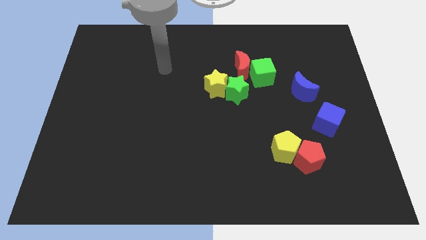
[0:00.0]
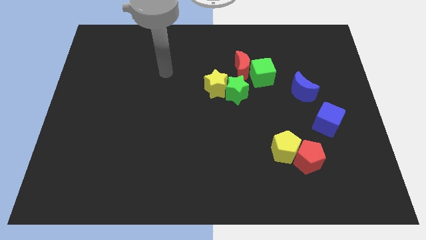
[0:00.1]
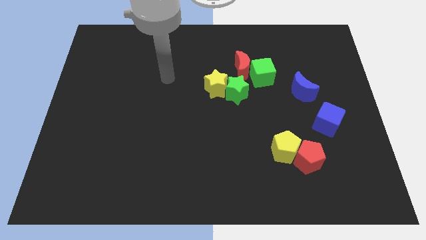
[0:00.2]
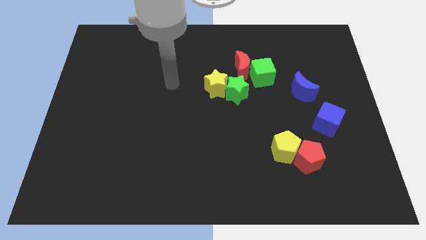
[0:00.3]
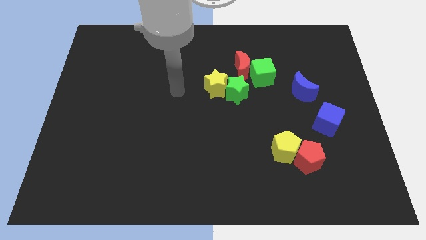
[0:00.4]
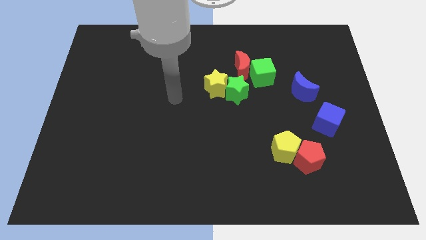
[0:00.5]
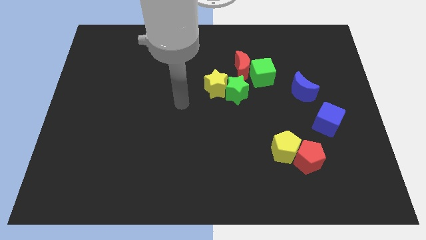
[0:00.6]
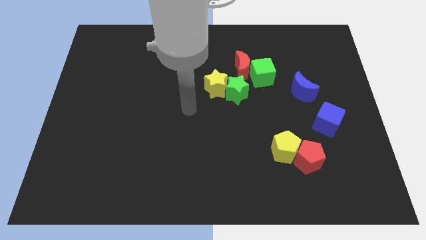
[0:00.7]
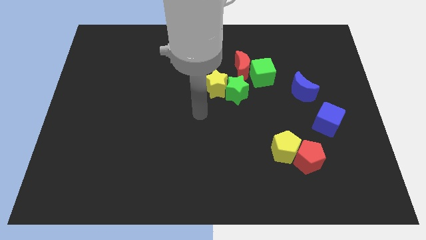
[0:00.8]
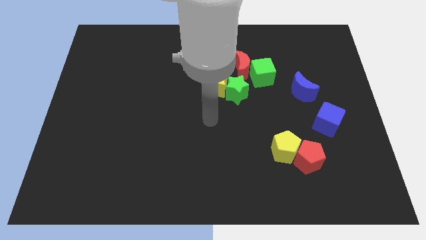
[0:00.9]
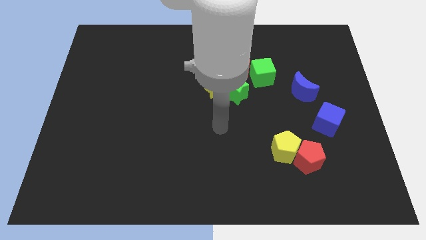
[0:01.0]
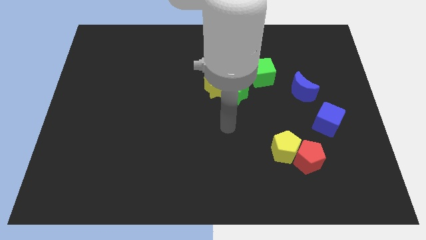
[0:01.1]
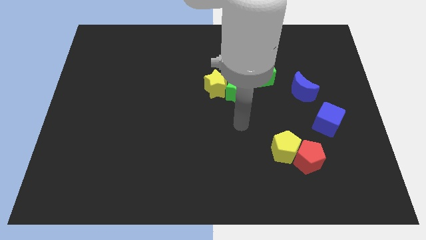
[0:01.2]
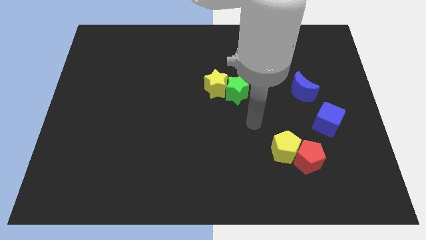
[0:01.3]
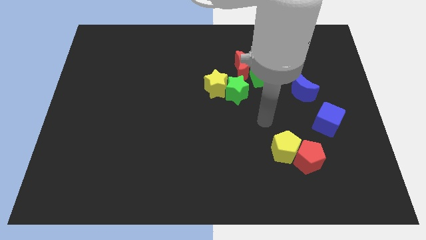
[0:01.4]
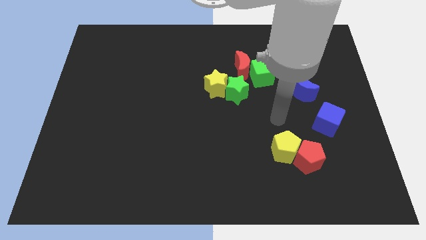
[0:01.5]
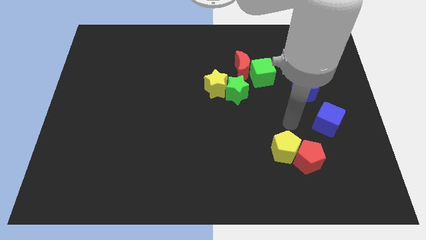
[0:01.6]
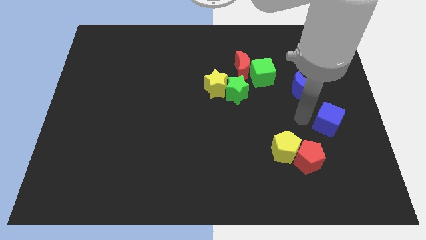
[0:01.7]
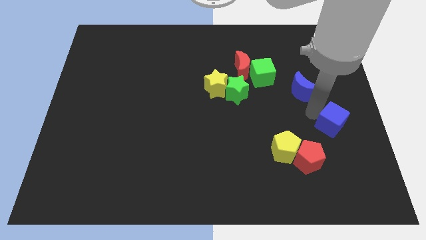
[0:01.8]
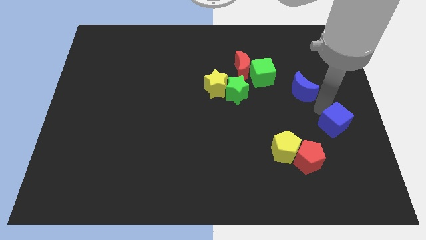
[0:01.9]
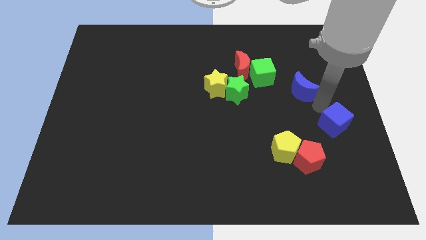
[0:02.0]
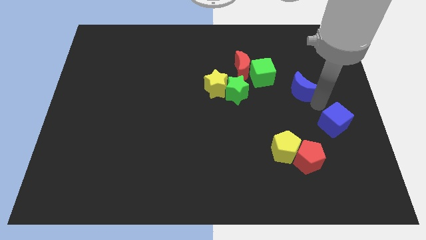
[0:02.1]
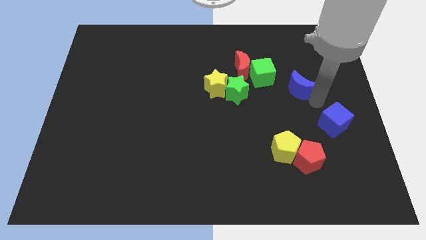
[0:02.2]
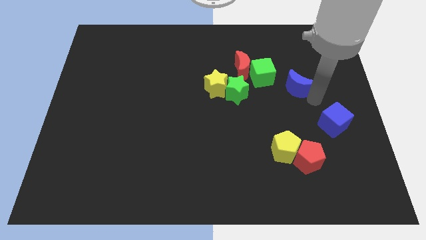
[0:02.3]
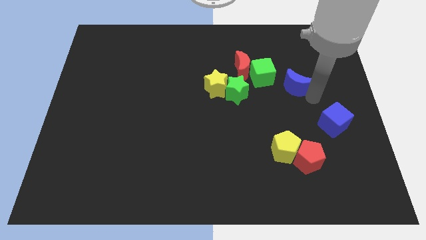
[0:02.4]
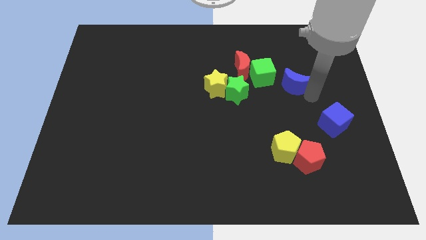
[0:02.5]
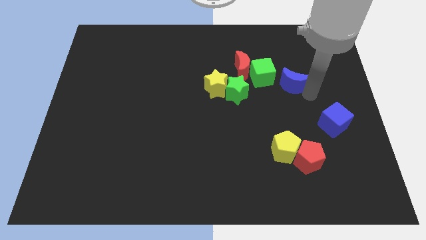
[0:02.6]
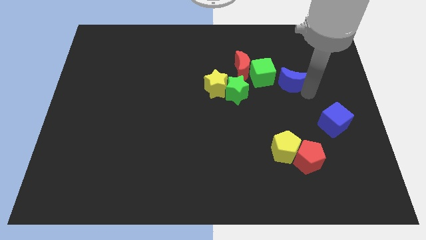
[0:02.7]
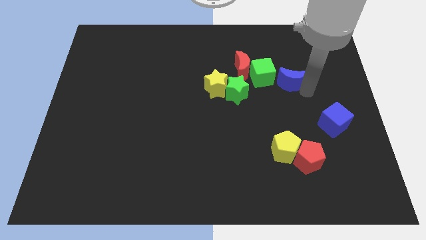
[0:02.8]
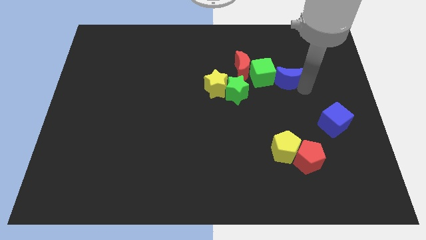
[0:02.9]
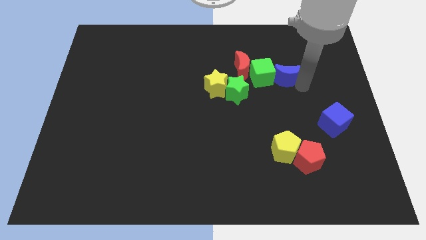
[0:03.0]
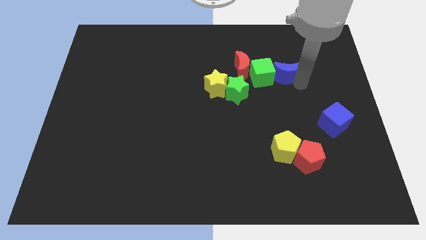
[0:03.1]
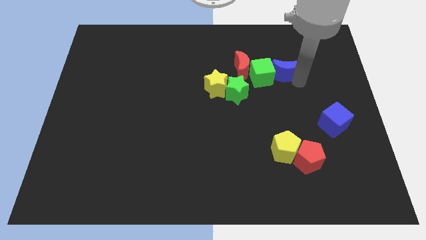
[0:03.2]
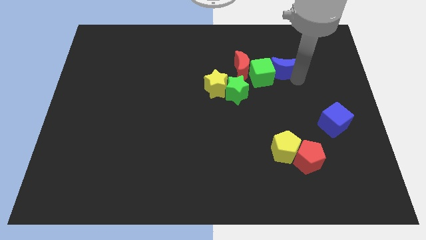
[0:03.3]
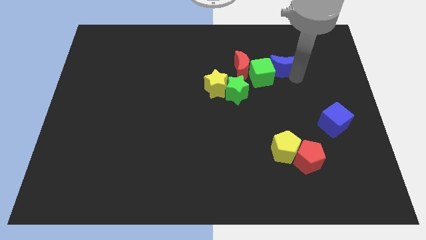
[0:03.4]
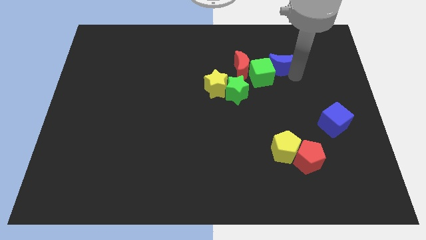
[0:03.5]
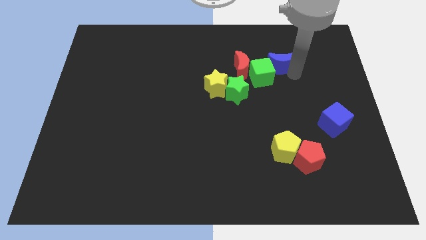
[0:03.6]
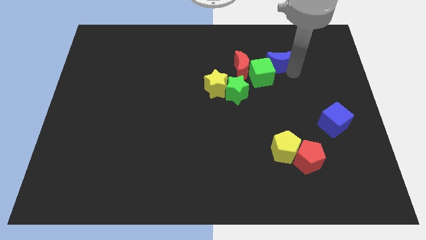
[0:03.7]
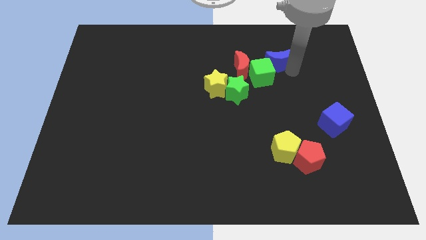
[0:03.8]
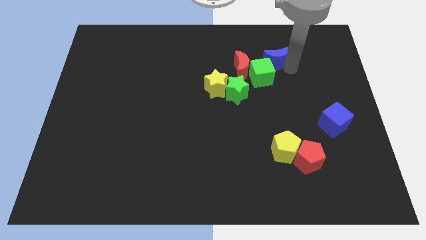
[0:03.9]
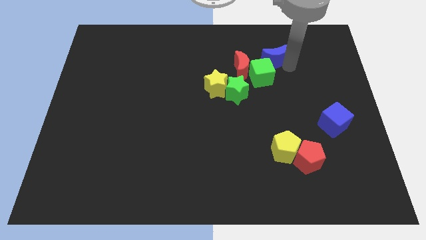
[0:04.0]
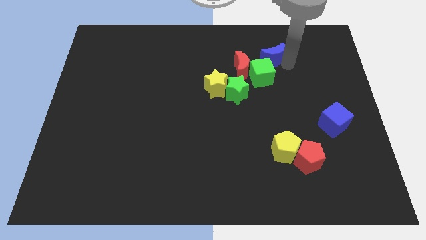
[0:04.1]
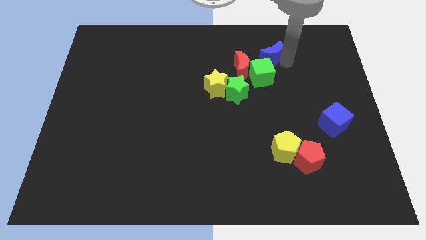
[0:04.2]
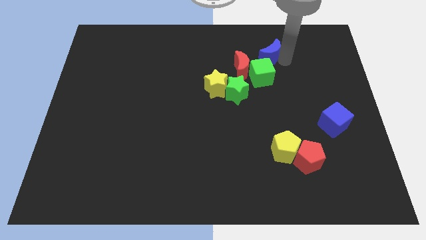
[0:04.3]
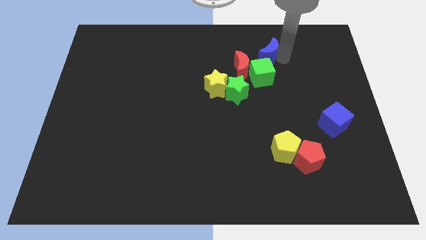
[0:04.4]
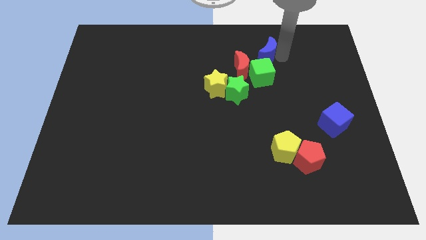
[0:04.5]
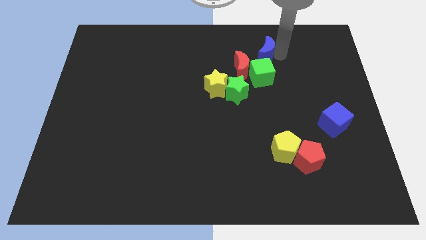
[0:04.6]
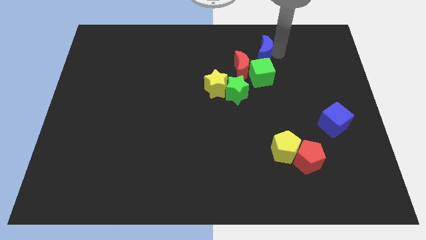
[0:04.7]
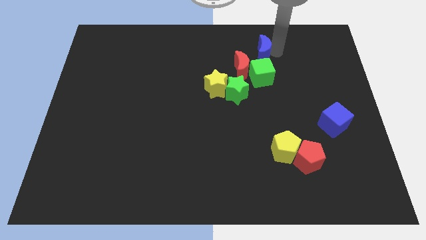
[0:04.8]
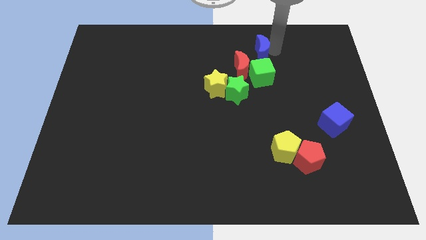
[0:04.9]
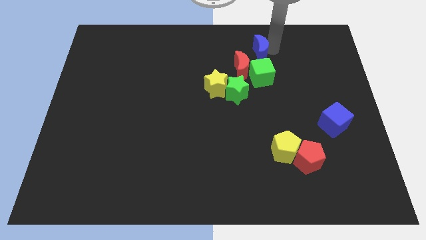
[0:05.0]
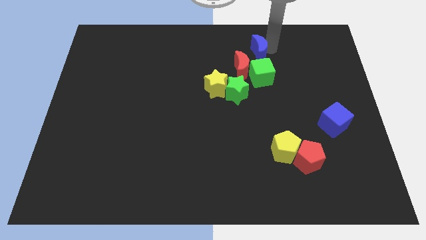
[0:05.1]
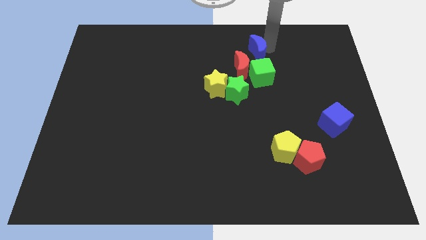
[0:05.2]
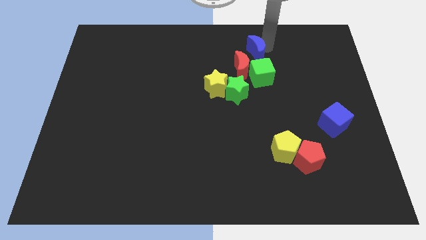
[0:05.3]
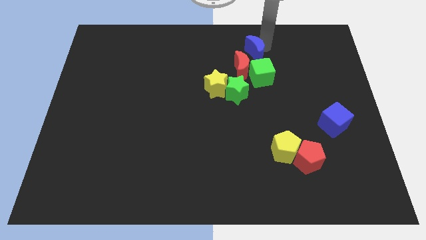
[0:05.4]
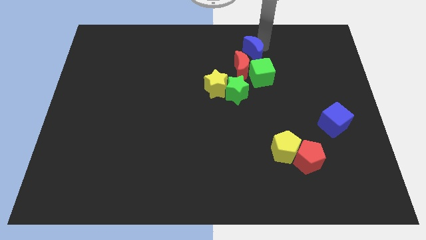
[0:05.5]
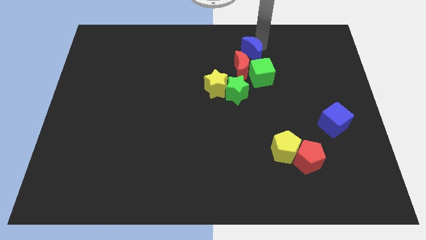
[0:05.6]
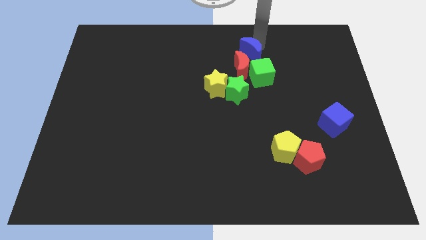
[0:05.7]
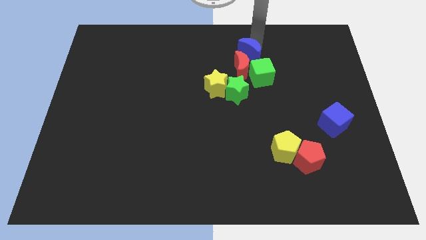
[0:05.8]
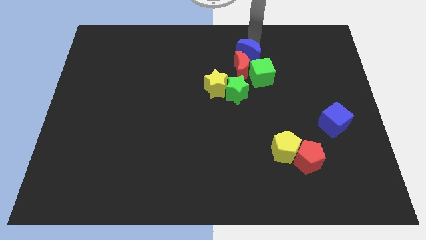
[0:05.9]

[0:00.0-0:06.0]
slide the blue moon to the red moon

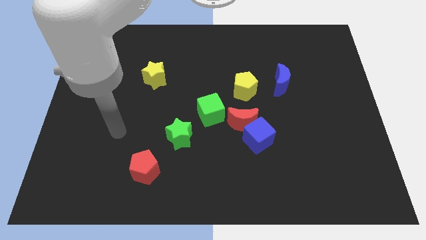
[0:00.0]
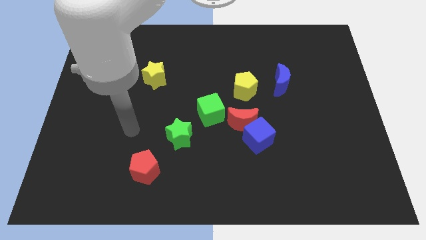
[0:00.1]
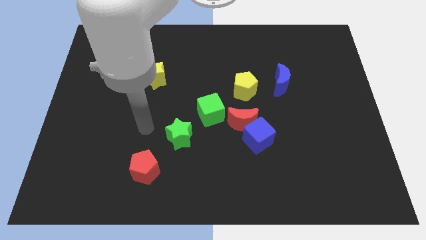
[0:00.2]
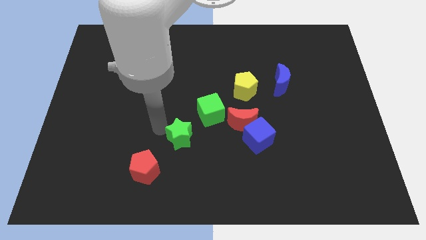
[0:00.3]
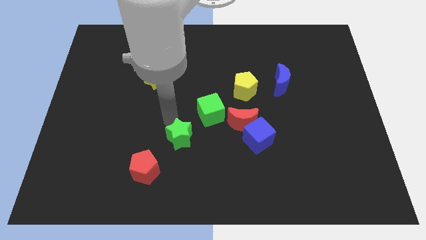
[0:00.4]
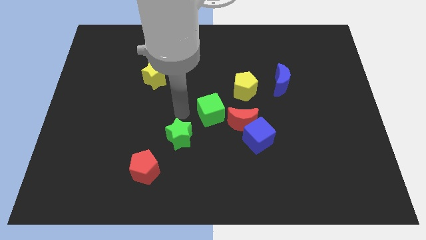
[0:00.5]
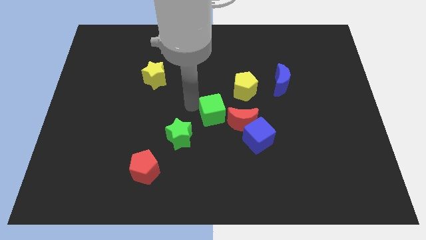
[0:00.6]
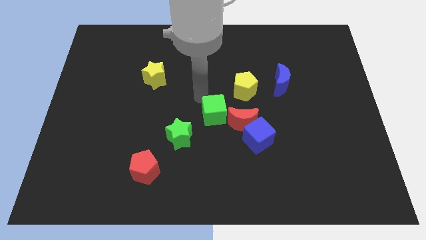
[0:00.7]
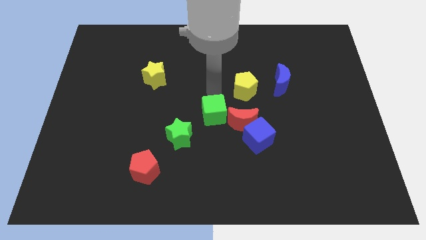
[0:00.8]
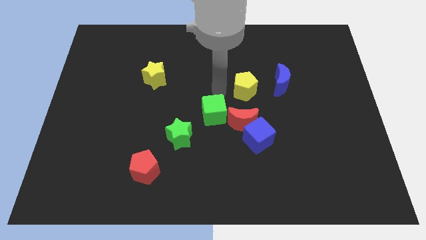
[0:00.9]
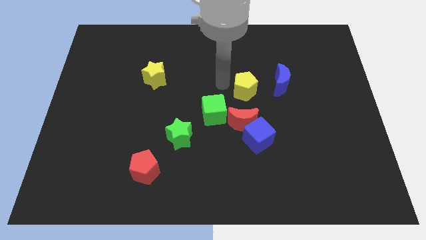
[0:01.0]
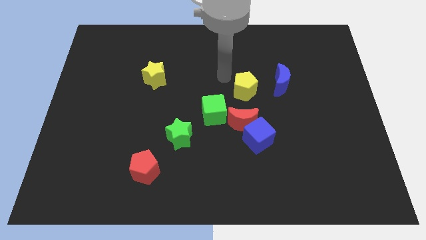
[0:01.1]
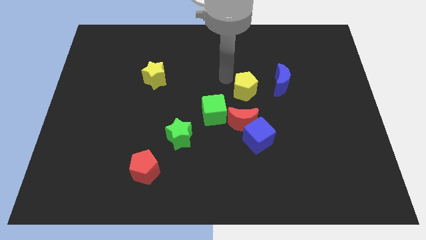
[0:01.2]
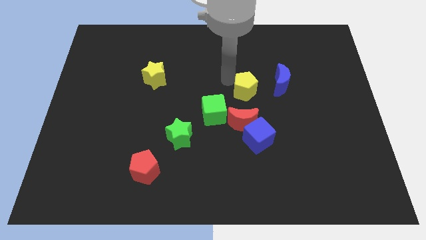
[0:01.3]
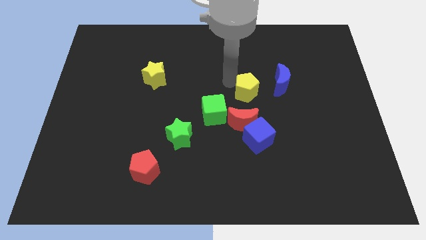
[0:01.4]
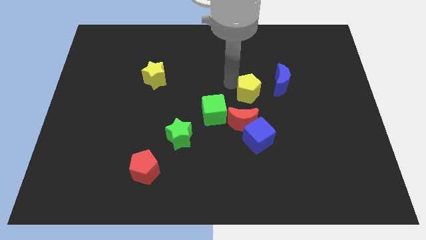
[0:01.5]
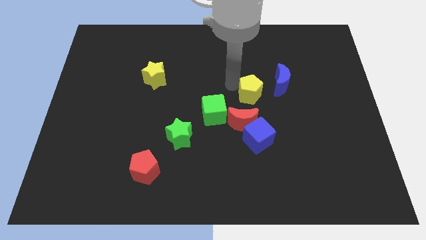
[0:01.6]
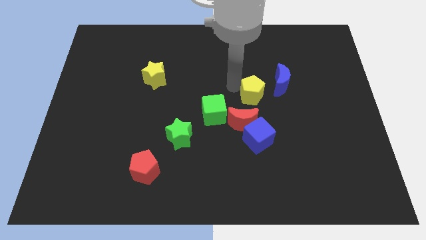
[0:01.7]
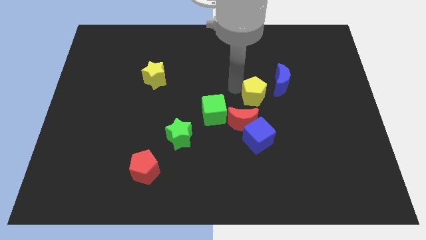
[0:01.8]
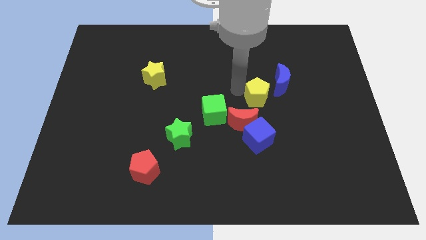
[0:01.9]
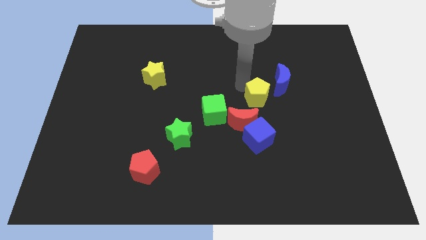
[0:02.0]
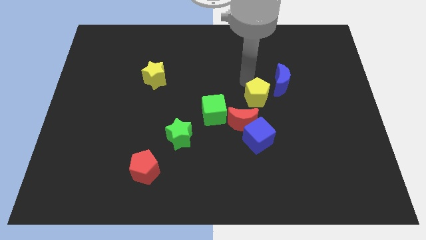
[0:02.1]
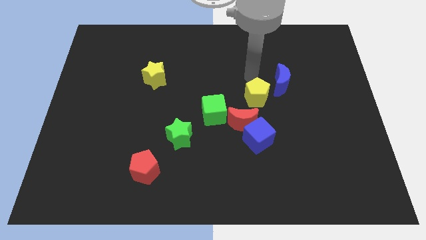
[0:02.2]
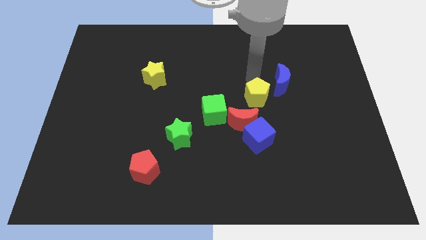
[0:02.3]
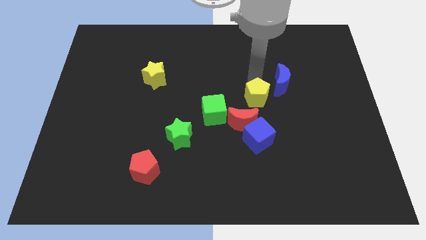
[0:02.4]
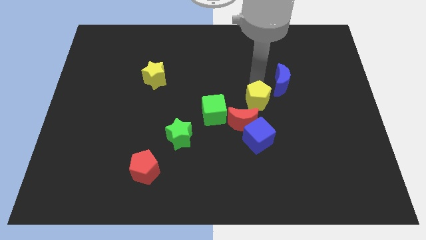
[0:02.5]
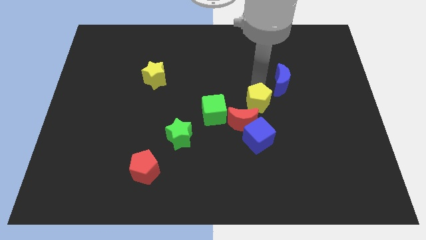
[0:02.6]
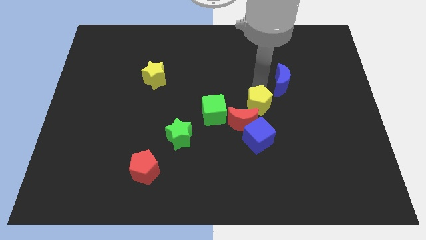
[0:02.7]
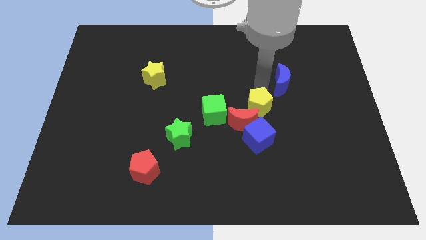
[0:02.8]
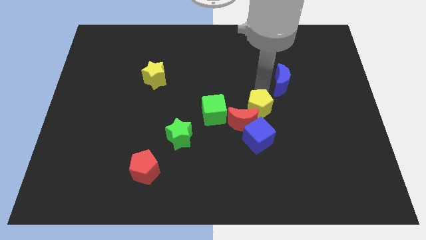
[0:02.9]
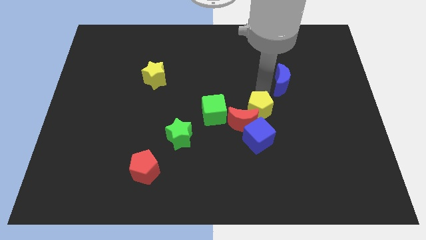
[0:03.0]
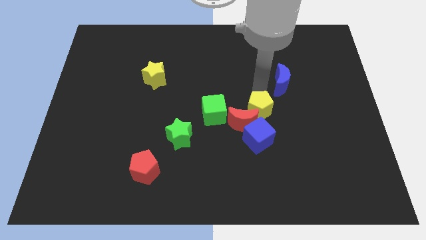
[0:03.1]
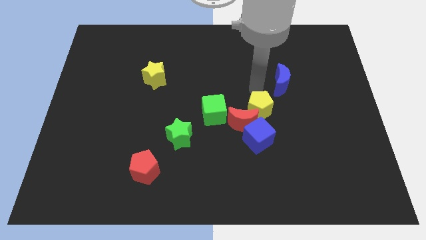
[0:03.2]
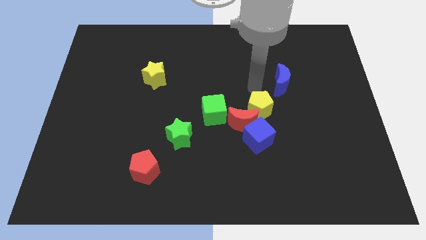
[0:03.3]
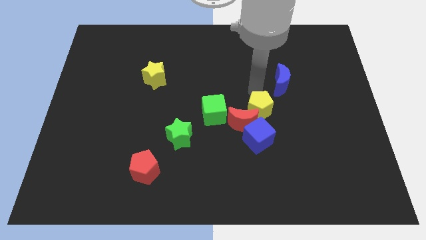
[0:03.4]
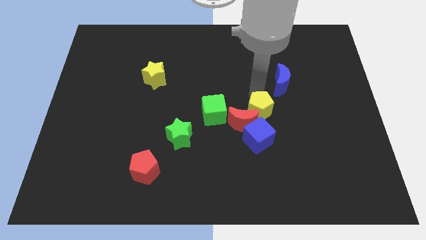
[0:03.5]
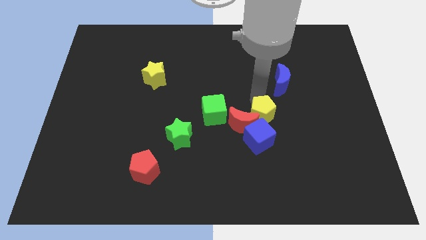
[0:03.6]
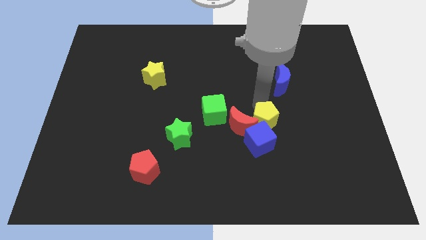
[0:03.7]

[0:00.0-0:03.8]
put the yellow pentagon close to the blue cube
